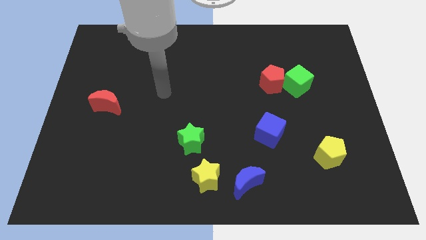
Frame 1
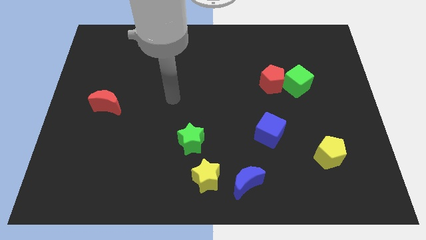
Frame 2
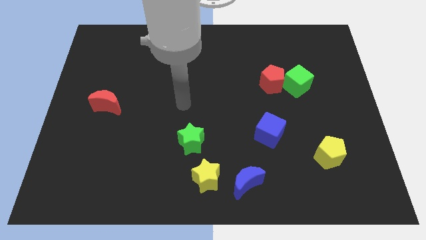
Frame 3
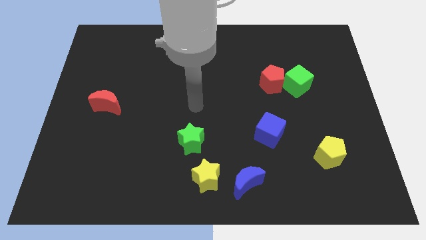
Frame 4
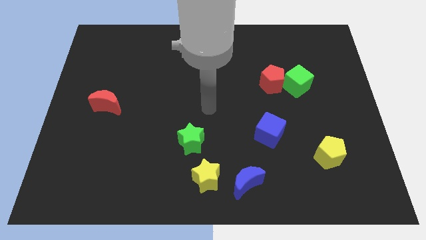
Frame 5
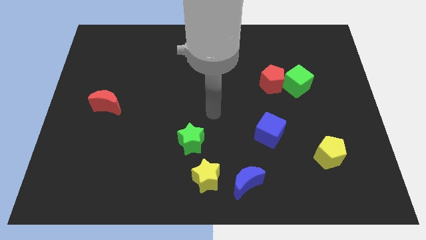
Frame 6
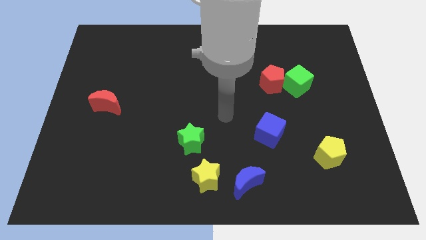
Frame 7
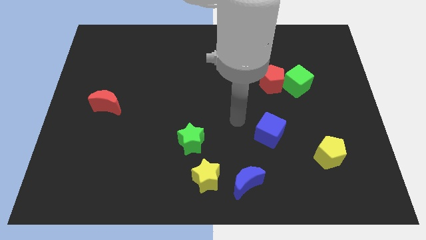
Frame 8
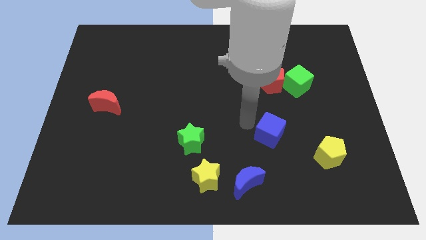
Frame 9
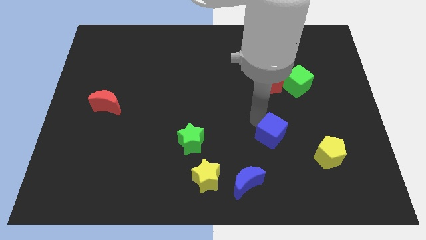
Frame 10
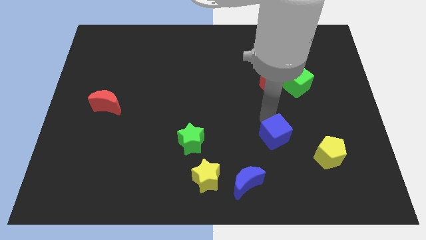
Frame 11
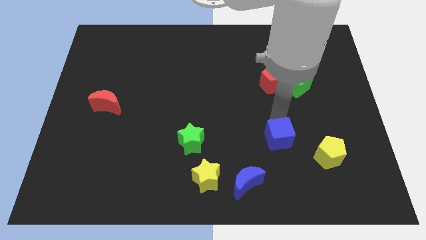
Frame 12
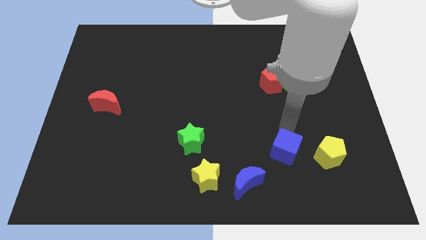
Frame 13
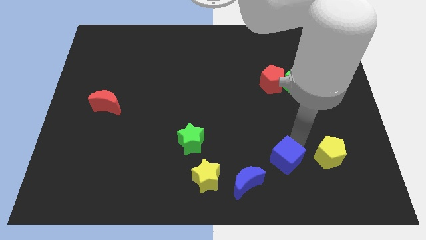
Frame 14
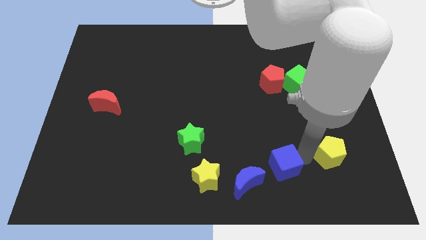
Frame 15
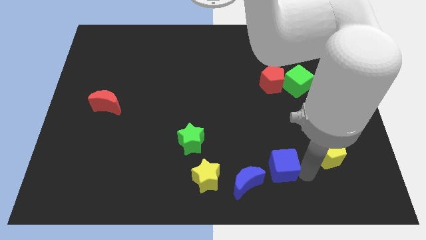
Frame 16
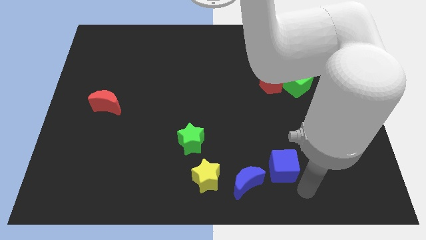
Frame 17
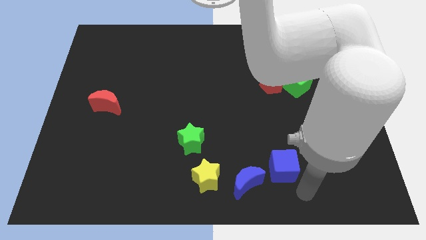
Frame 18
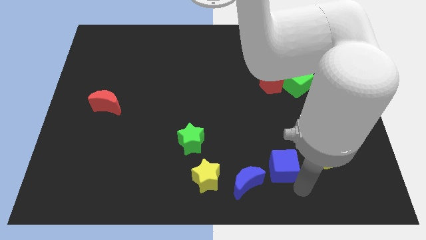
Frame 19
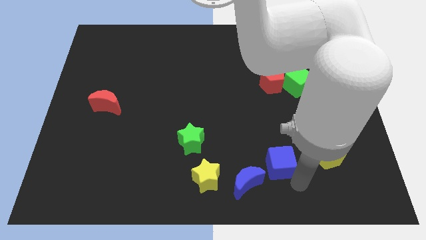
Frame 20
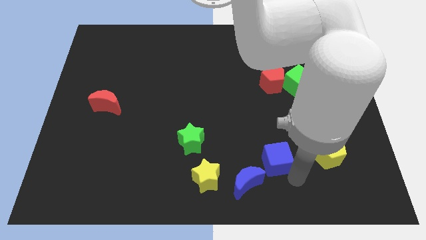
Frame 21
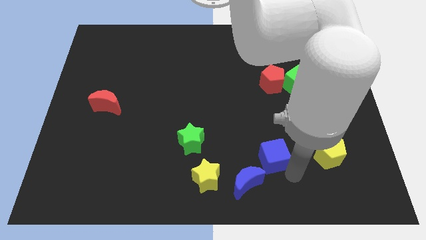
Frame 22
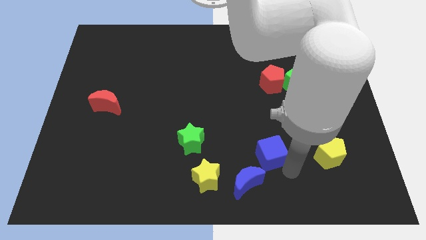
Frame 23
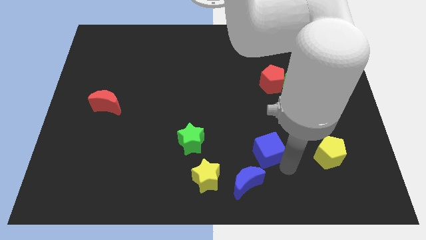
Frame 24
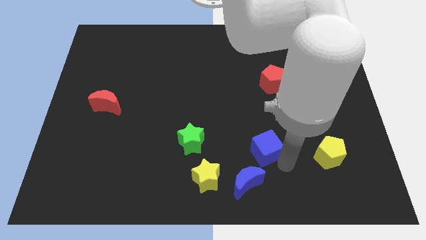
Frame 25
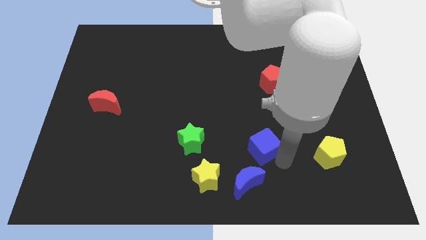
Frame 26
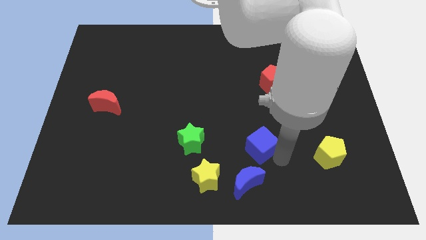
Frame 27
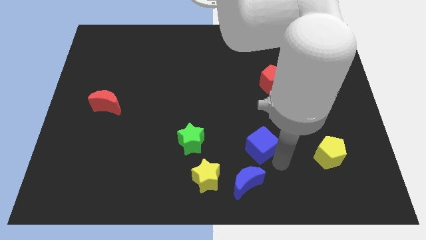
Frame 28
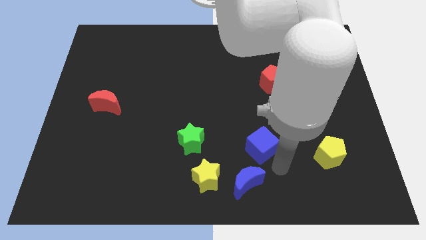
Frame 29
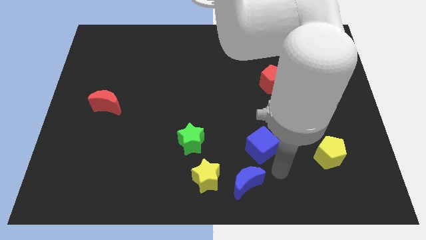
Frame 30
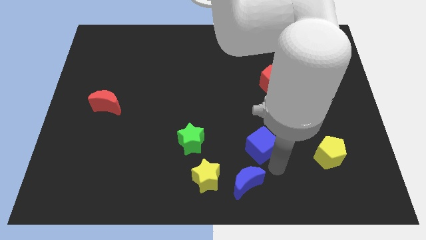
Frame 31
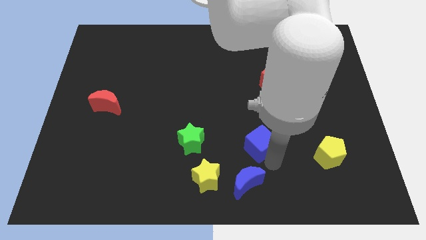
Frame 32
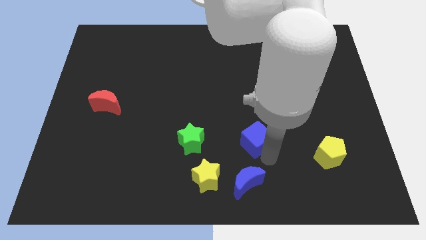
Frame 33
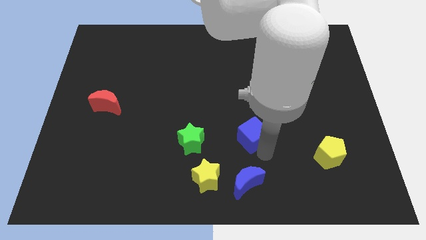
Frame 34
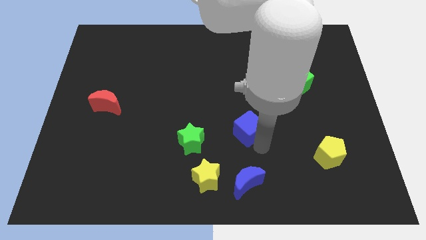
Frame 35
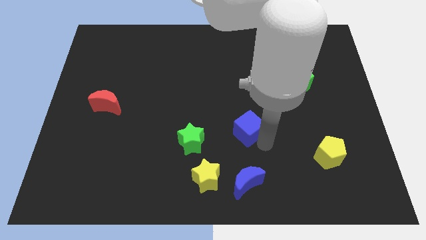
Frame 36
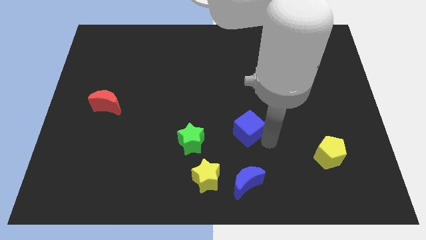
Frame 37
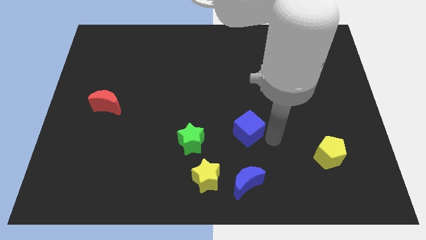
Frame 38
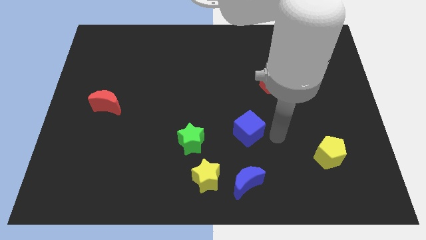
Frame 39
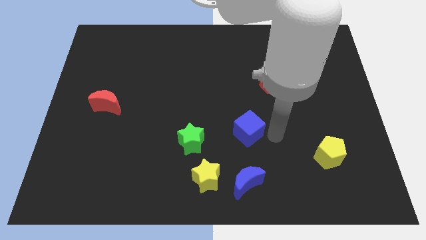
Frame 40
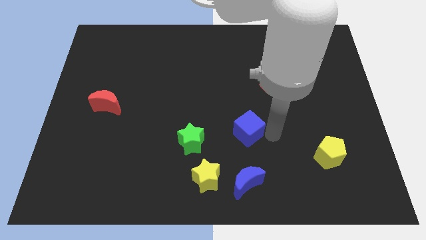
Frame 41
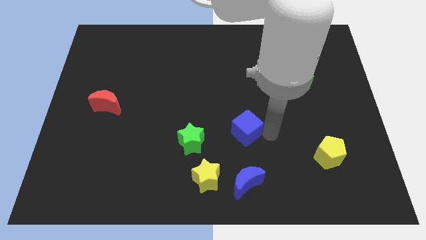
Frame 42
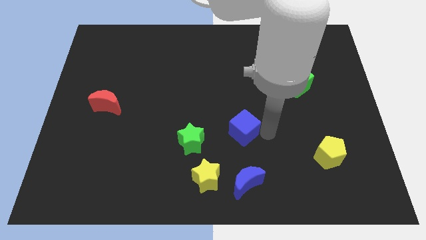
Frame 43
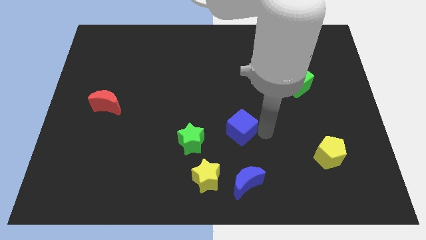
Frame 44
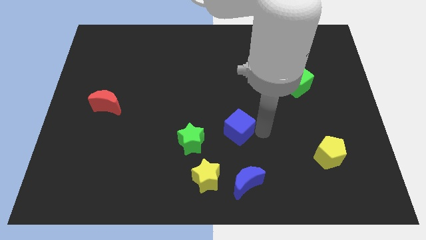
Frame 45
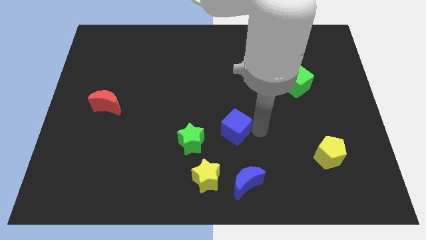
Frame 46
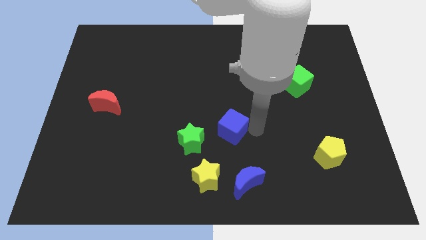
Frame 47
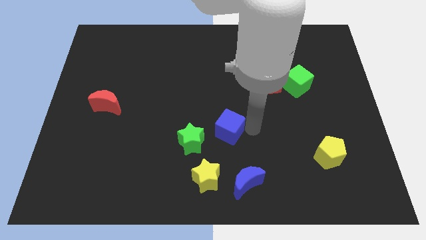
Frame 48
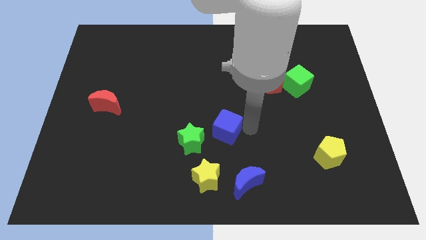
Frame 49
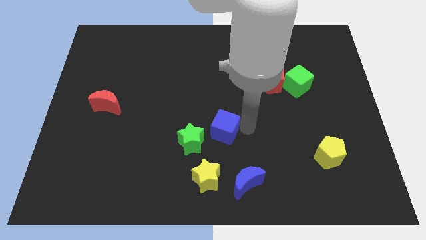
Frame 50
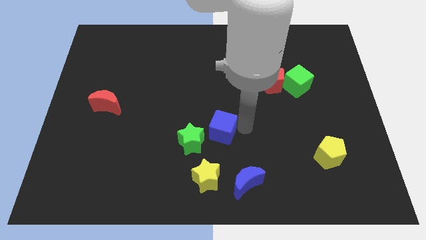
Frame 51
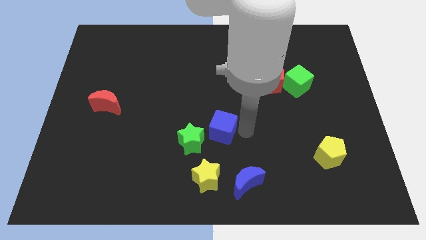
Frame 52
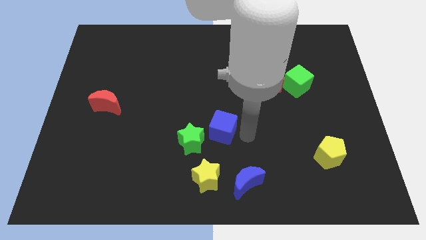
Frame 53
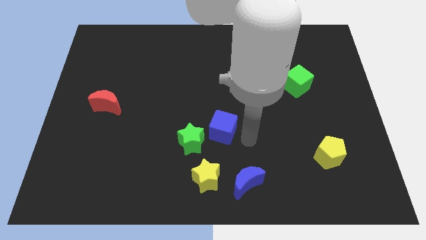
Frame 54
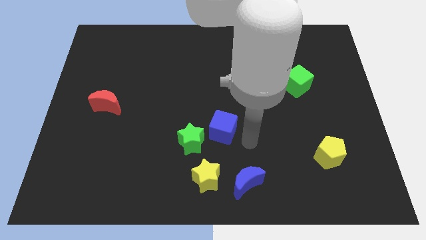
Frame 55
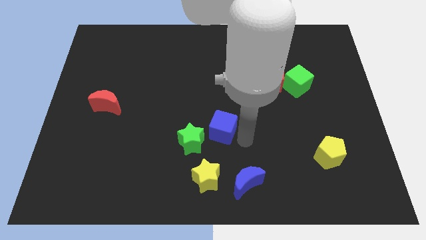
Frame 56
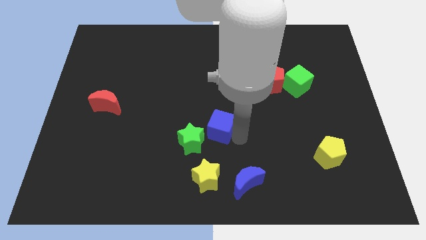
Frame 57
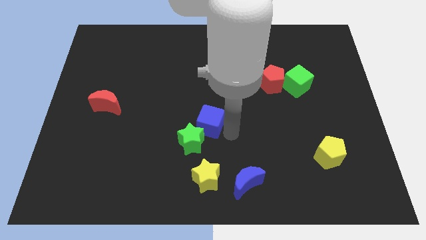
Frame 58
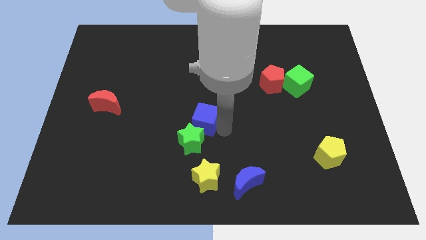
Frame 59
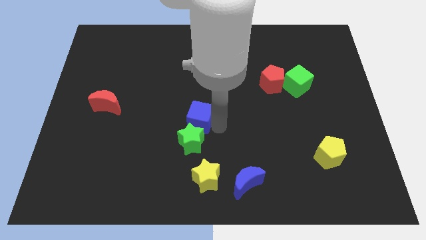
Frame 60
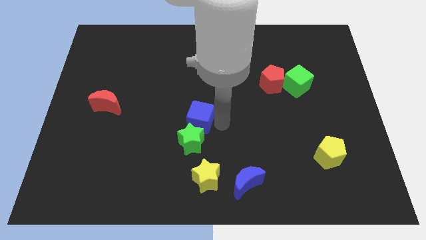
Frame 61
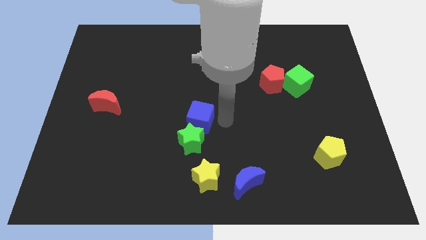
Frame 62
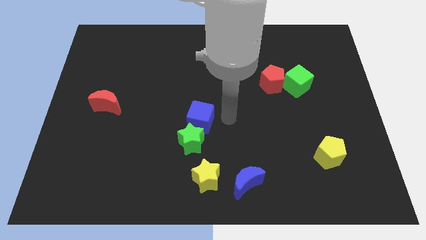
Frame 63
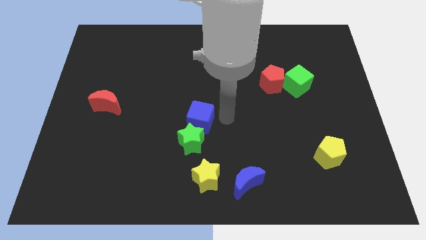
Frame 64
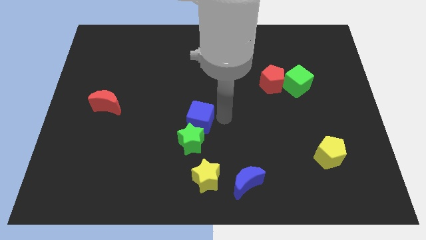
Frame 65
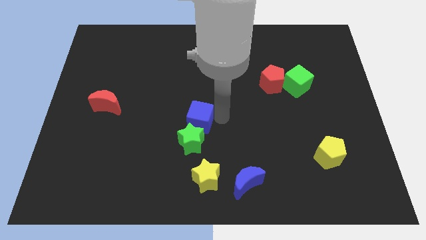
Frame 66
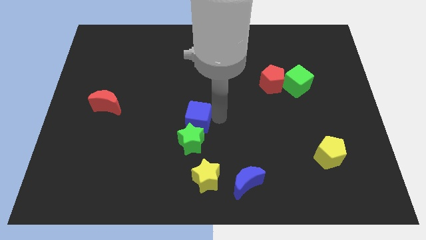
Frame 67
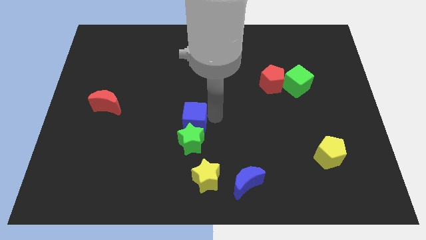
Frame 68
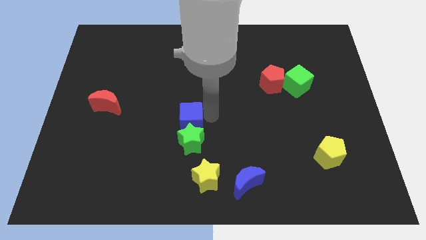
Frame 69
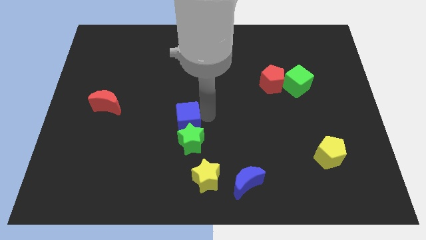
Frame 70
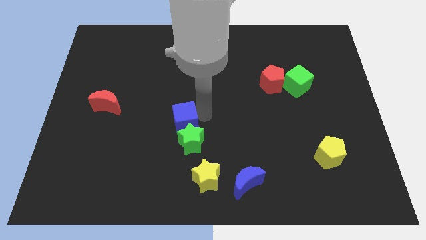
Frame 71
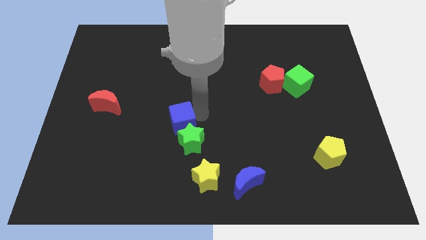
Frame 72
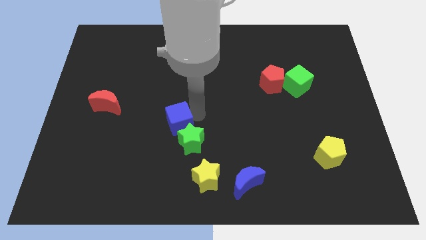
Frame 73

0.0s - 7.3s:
slide the blue cube to the left

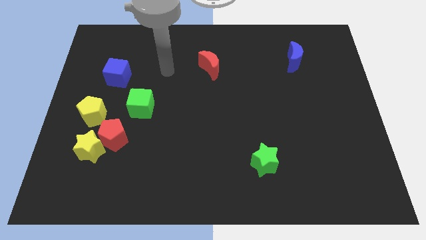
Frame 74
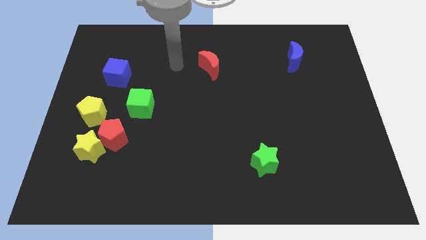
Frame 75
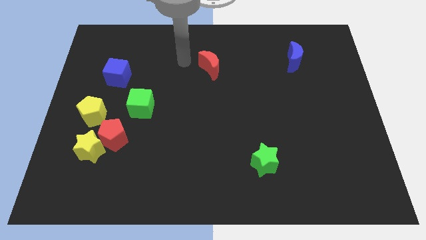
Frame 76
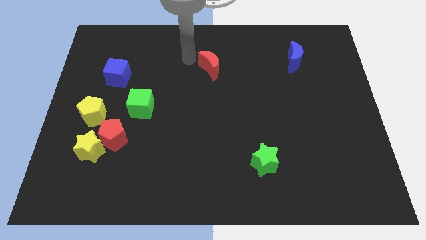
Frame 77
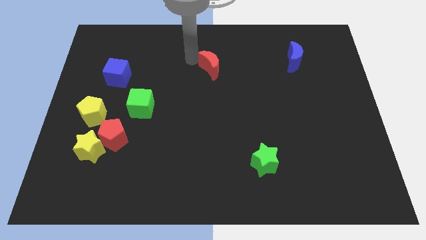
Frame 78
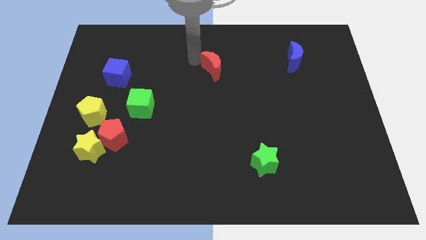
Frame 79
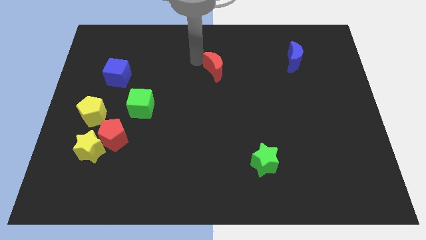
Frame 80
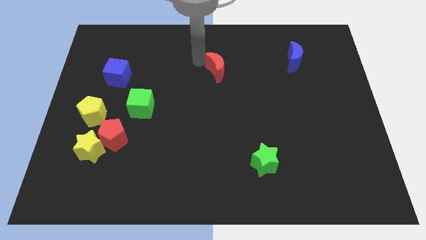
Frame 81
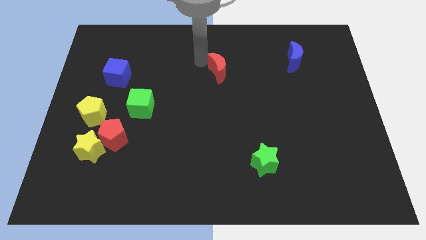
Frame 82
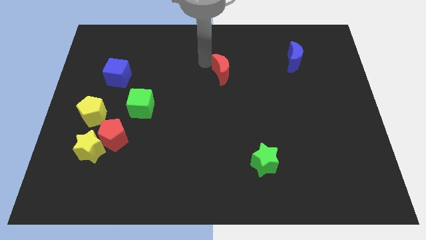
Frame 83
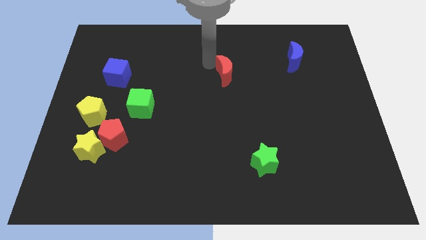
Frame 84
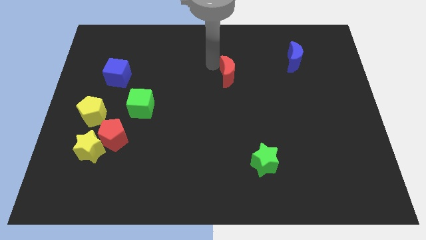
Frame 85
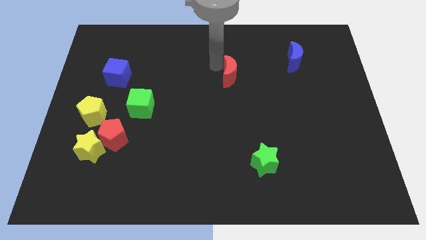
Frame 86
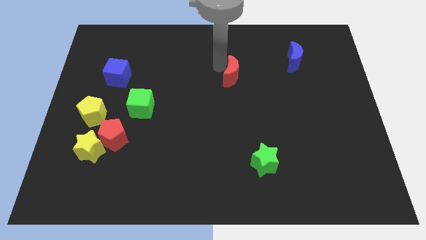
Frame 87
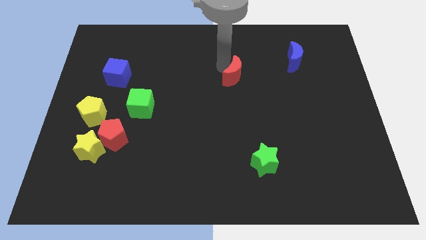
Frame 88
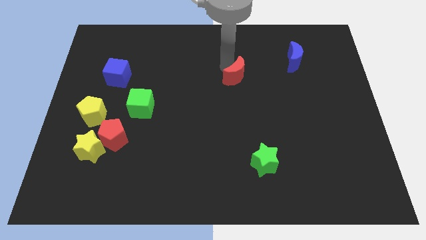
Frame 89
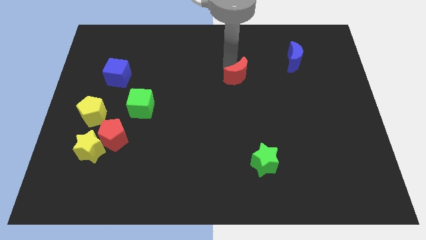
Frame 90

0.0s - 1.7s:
slightly slide the red moon downwards and to the right
